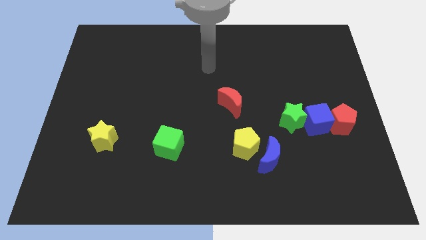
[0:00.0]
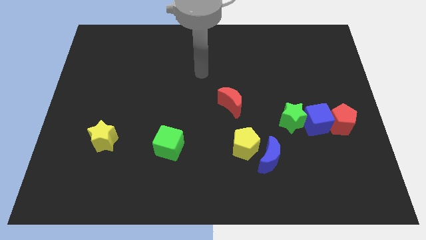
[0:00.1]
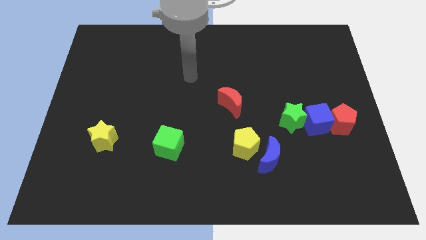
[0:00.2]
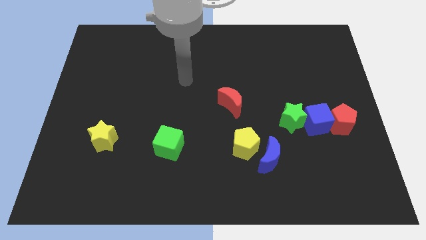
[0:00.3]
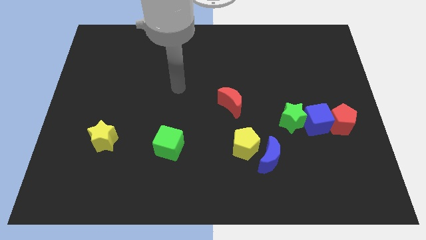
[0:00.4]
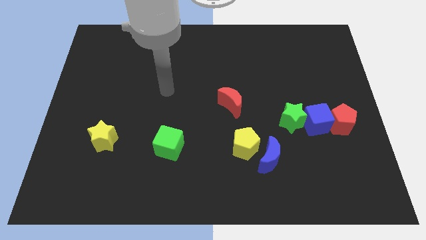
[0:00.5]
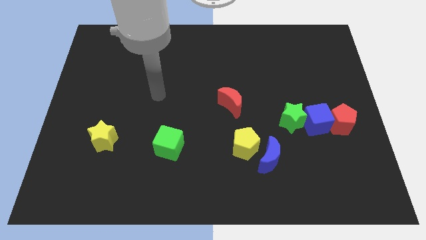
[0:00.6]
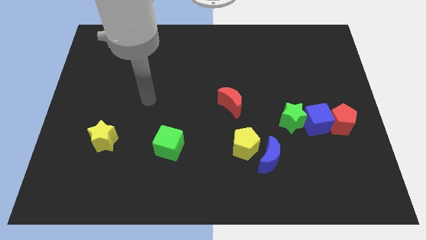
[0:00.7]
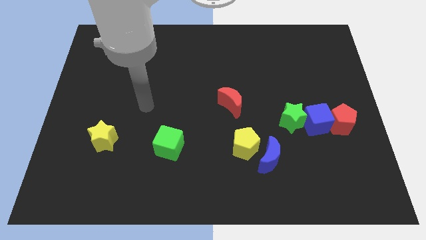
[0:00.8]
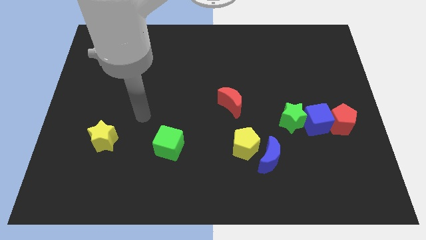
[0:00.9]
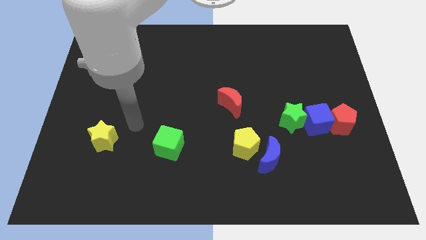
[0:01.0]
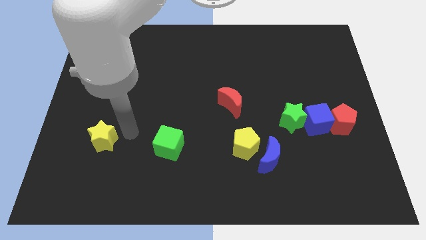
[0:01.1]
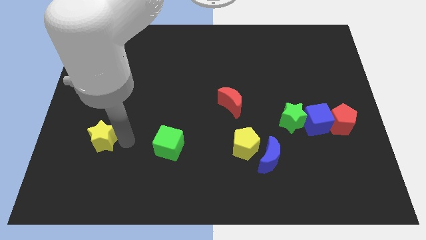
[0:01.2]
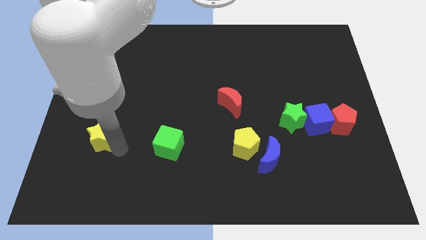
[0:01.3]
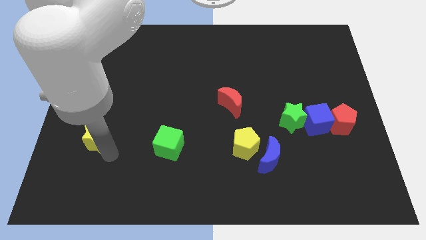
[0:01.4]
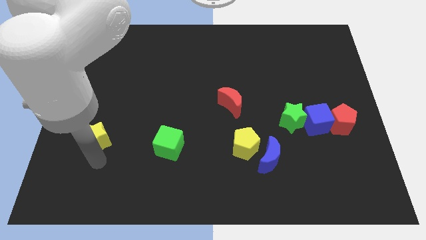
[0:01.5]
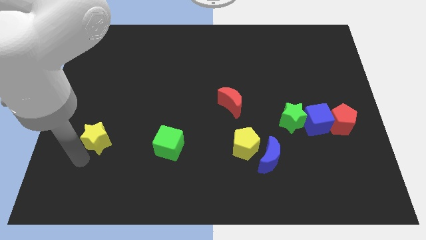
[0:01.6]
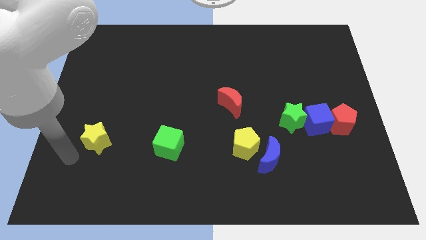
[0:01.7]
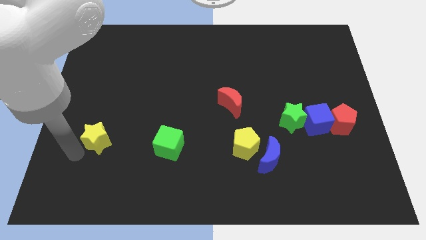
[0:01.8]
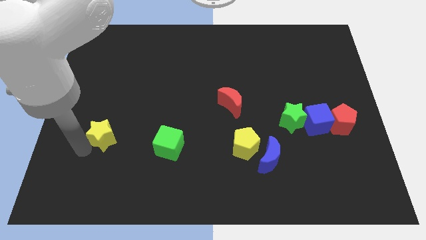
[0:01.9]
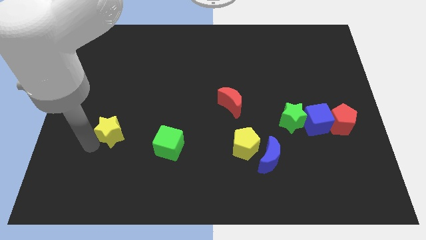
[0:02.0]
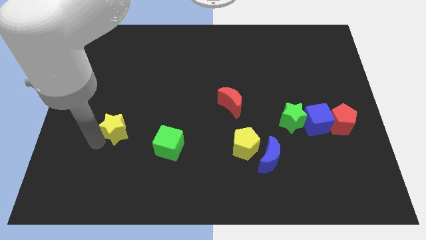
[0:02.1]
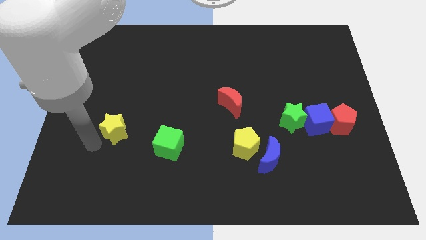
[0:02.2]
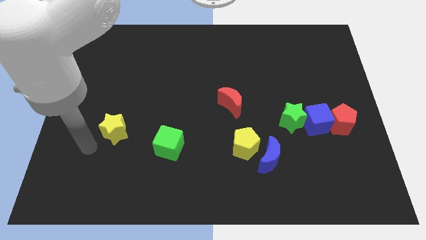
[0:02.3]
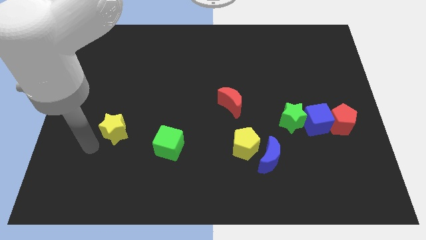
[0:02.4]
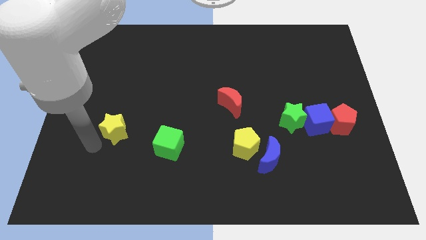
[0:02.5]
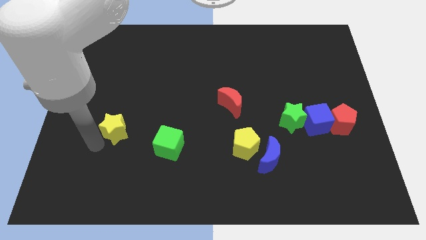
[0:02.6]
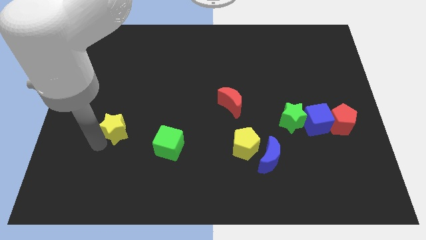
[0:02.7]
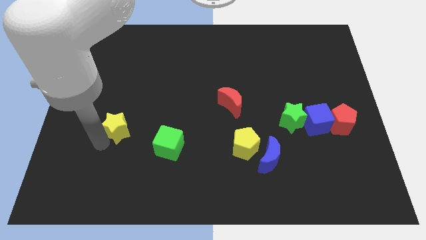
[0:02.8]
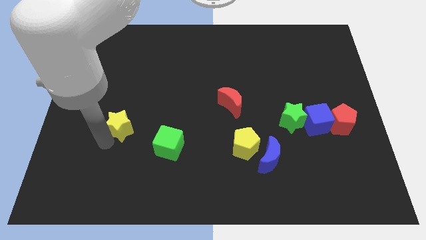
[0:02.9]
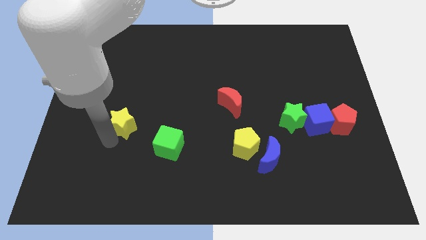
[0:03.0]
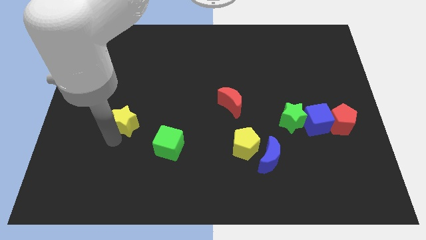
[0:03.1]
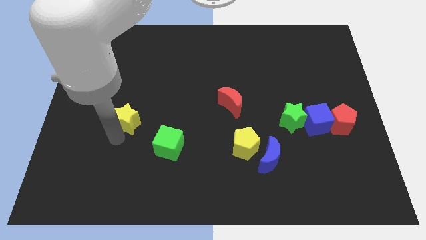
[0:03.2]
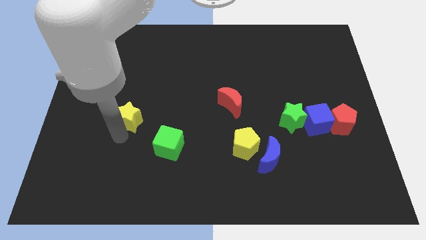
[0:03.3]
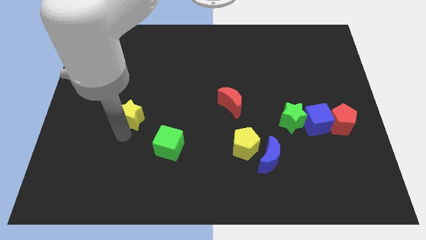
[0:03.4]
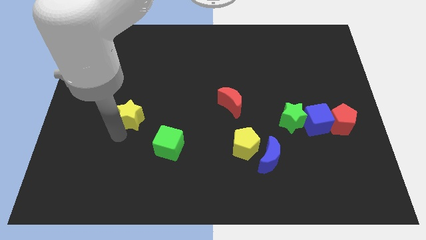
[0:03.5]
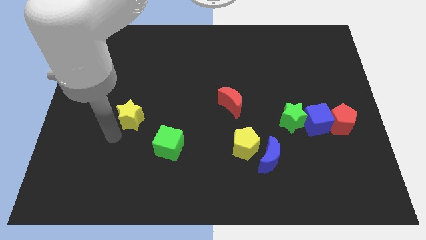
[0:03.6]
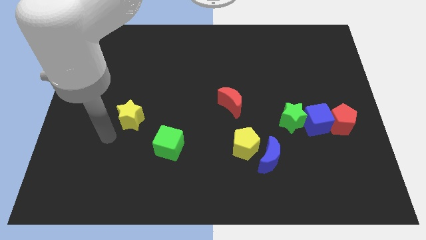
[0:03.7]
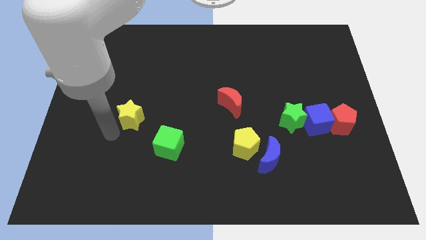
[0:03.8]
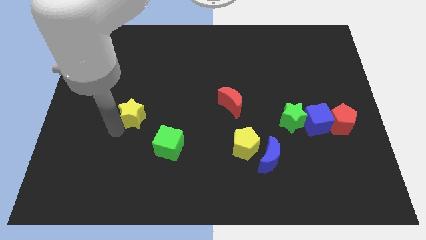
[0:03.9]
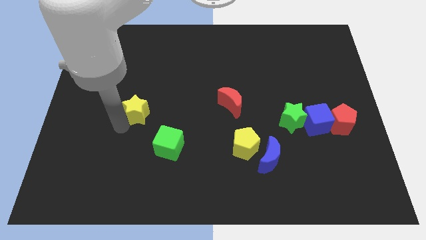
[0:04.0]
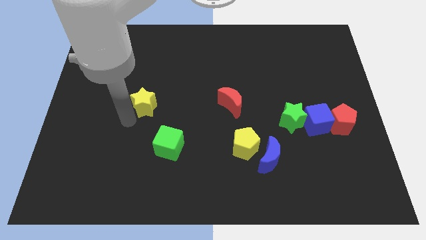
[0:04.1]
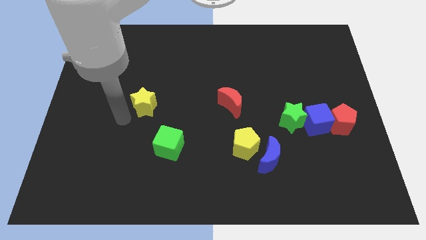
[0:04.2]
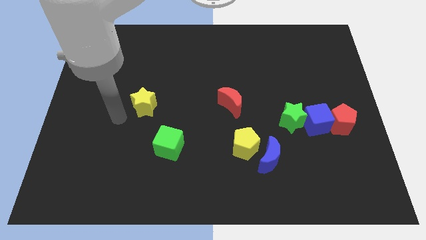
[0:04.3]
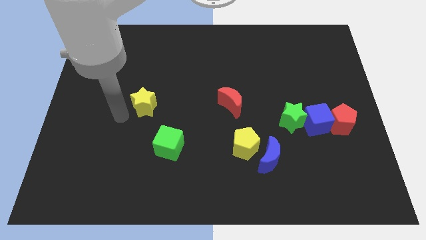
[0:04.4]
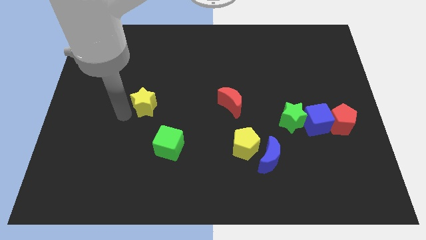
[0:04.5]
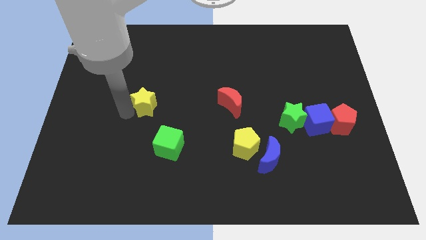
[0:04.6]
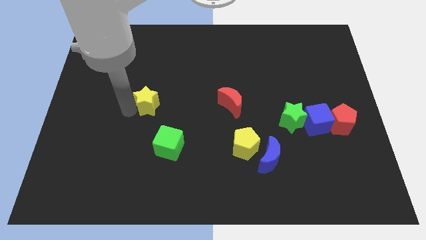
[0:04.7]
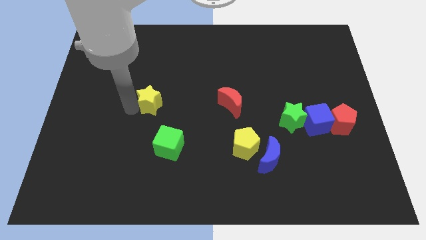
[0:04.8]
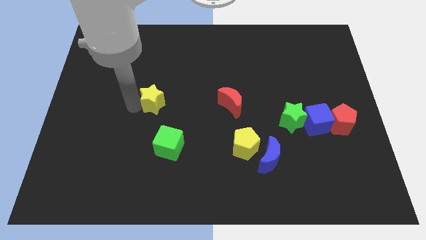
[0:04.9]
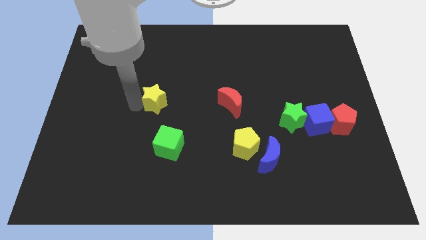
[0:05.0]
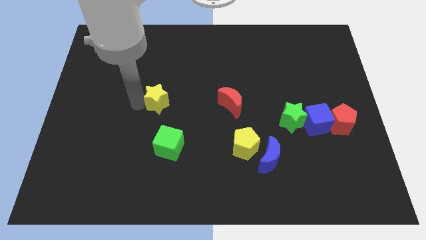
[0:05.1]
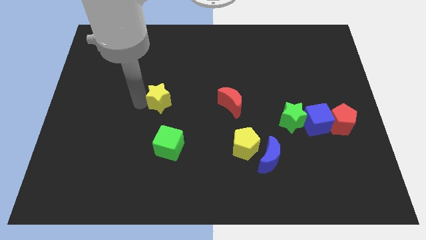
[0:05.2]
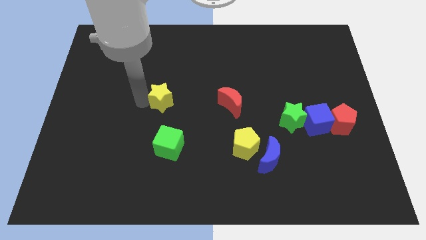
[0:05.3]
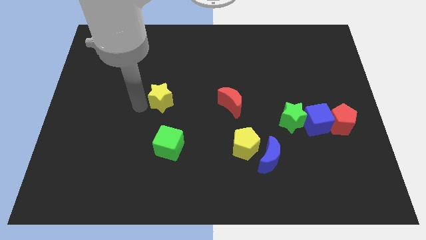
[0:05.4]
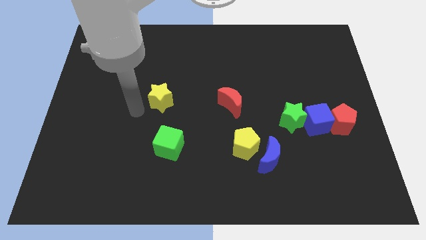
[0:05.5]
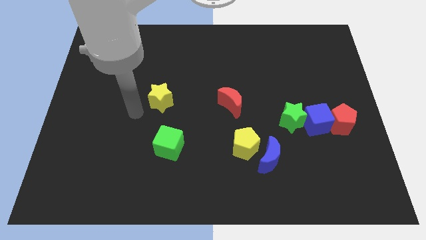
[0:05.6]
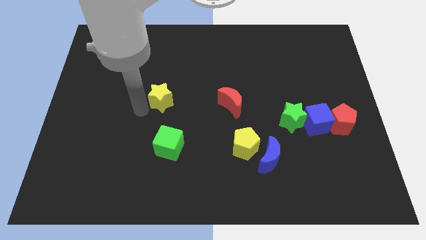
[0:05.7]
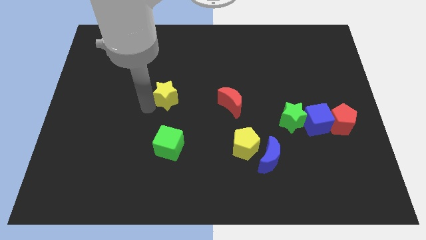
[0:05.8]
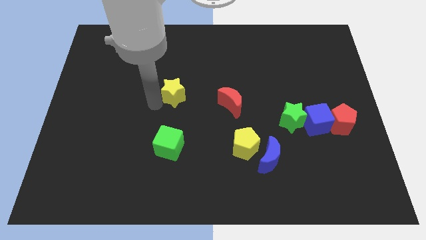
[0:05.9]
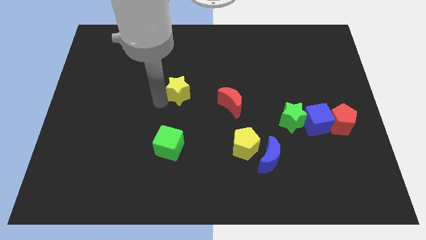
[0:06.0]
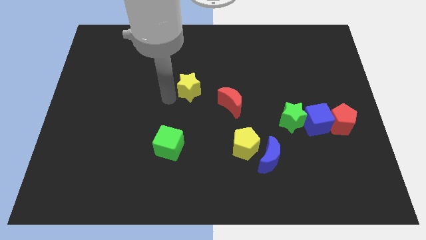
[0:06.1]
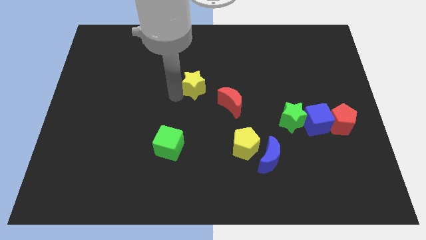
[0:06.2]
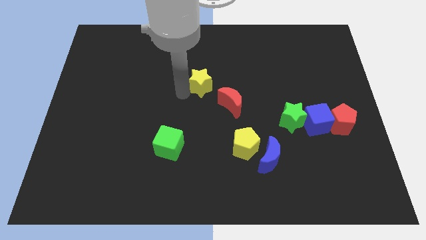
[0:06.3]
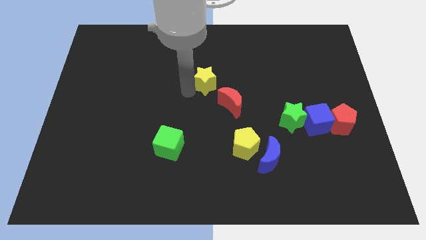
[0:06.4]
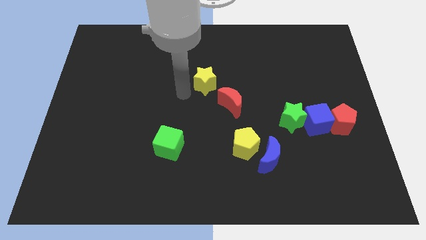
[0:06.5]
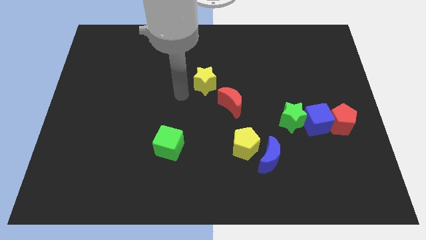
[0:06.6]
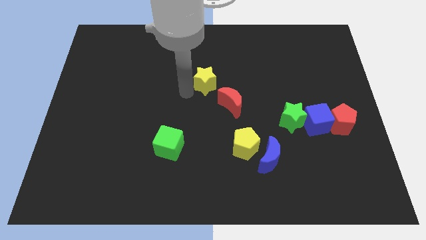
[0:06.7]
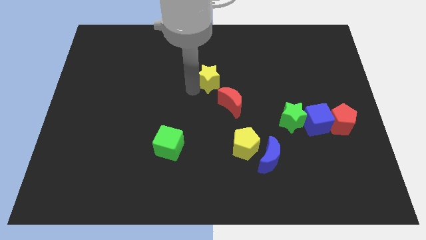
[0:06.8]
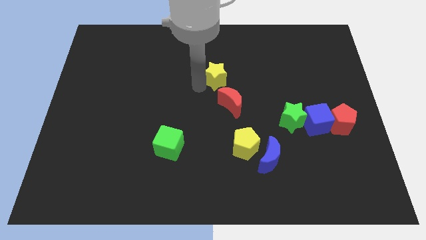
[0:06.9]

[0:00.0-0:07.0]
push the yellow star to the top of the red moon

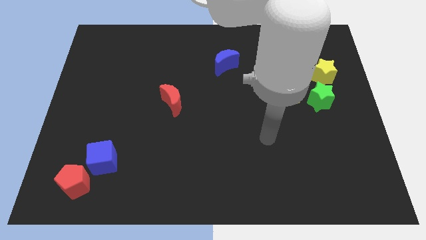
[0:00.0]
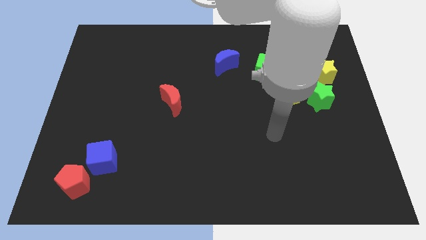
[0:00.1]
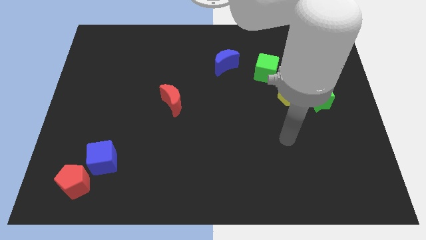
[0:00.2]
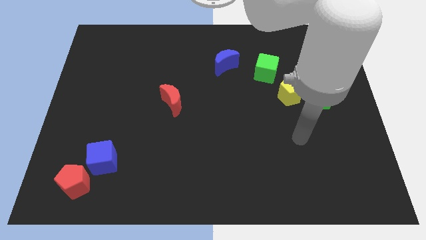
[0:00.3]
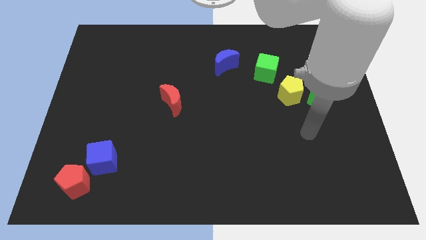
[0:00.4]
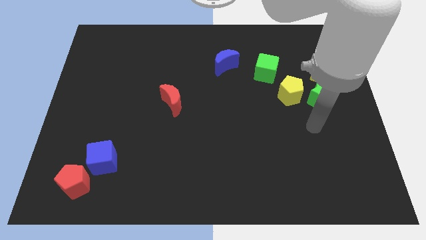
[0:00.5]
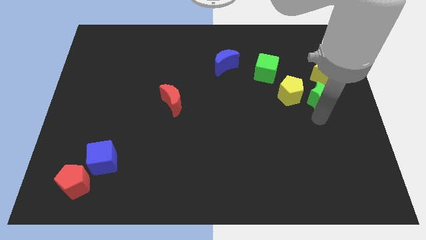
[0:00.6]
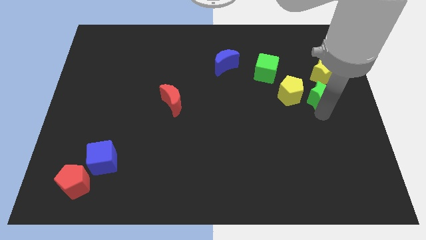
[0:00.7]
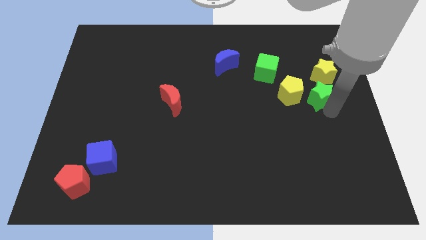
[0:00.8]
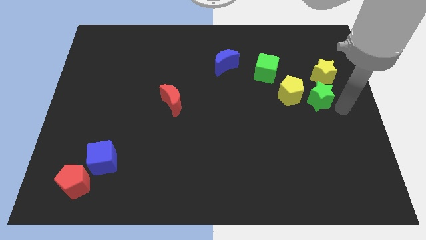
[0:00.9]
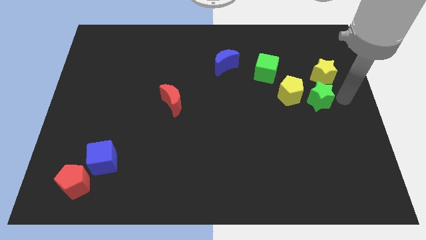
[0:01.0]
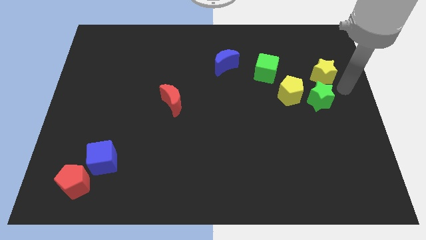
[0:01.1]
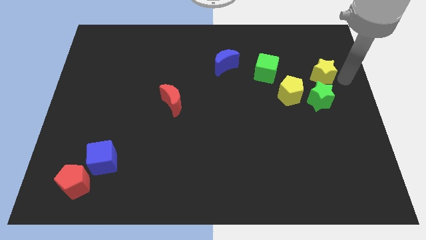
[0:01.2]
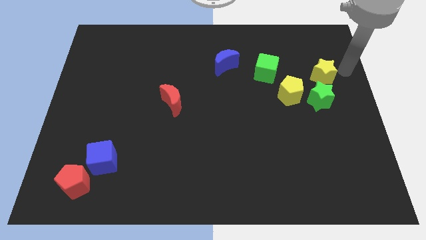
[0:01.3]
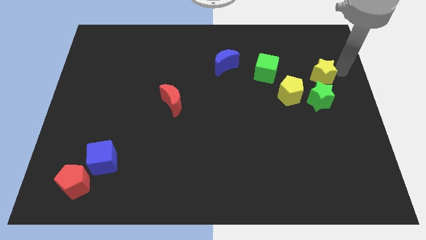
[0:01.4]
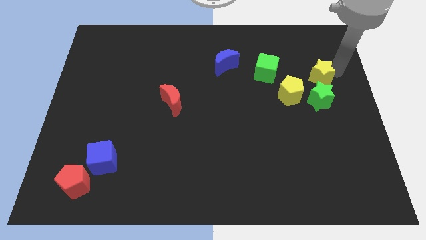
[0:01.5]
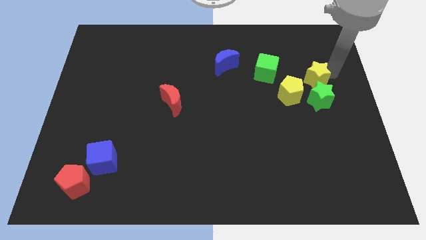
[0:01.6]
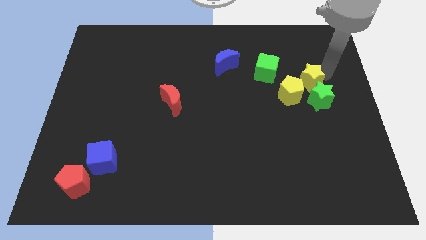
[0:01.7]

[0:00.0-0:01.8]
move the yellow star diagonally up and to the left of the green star
